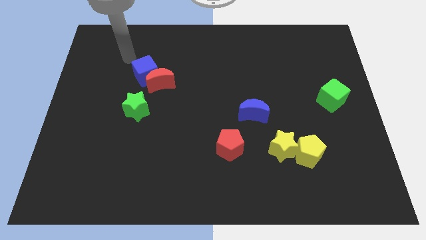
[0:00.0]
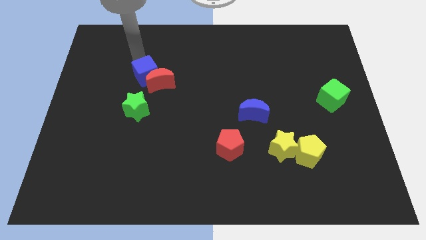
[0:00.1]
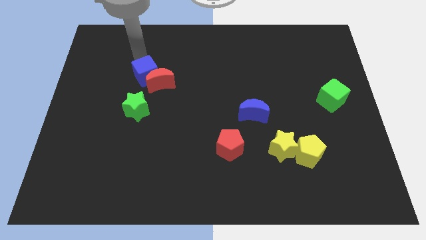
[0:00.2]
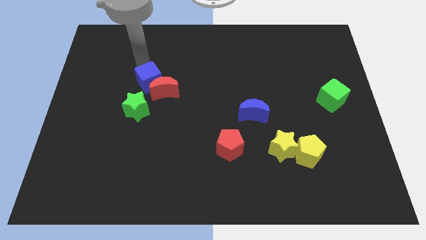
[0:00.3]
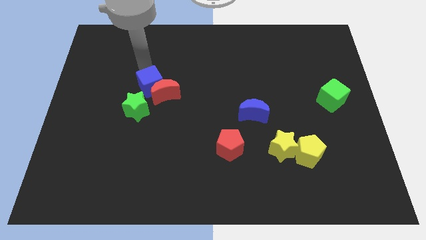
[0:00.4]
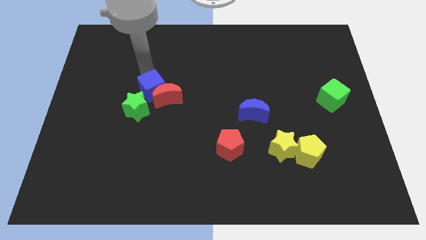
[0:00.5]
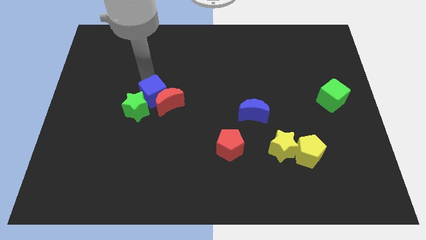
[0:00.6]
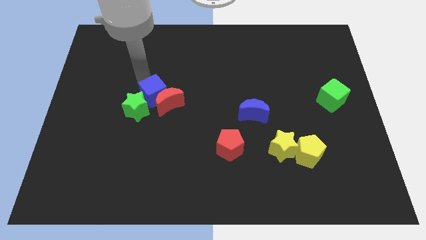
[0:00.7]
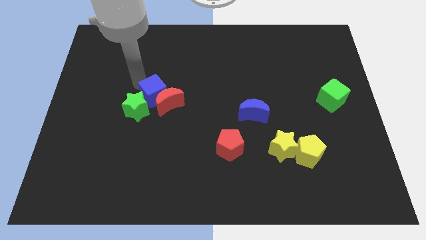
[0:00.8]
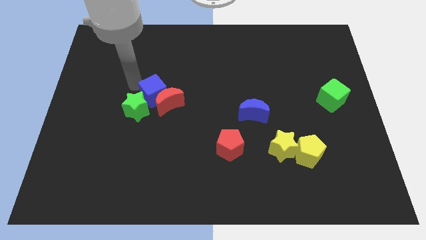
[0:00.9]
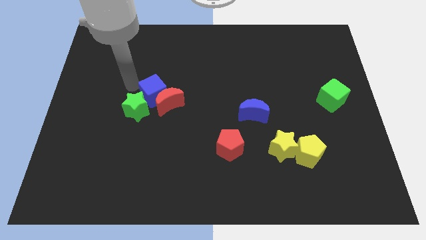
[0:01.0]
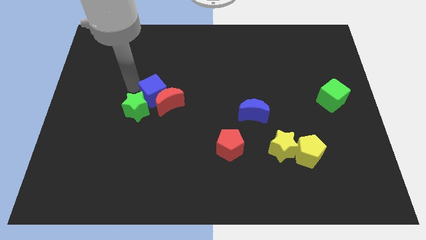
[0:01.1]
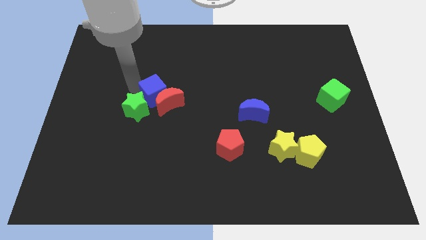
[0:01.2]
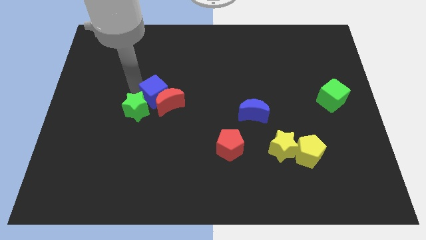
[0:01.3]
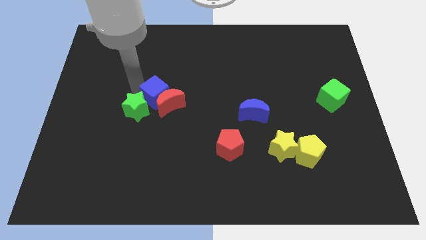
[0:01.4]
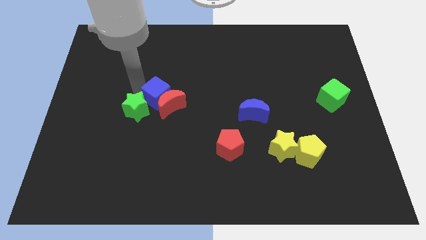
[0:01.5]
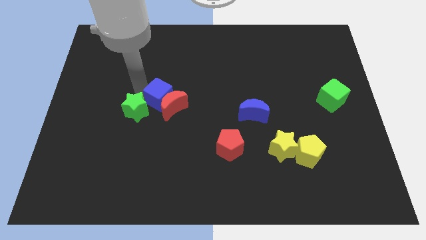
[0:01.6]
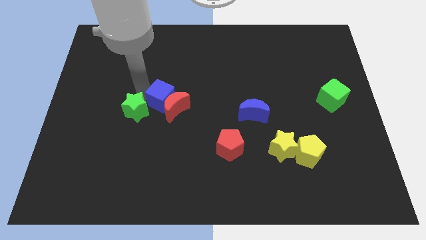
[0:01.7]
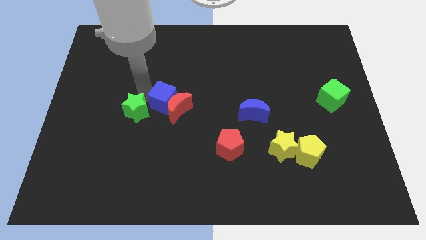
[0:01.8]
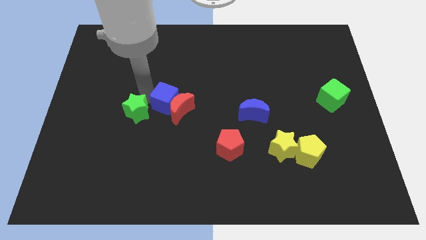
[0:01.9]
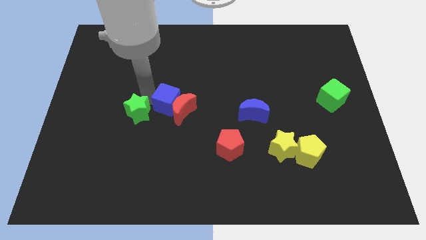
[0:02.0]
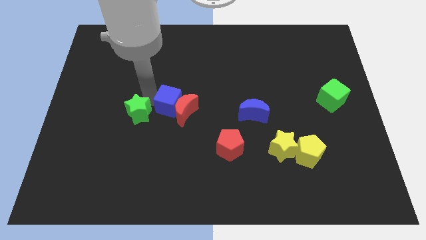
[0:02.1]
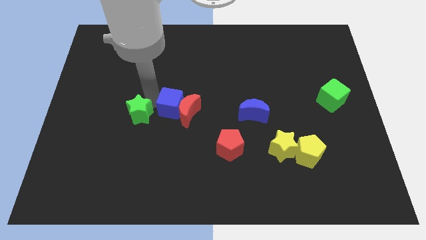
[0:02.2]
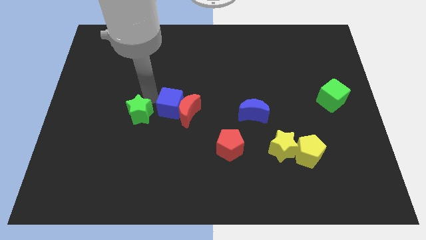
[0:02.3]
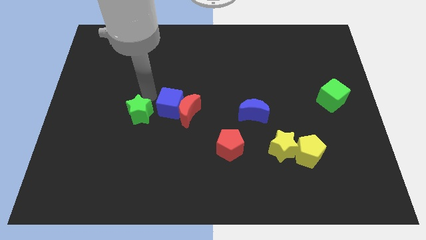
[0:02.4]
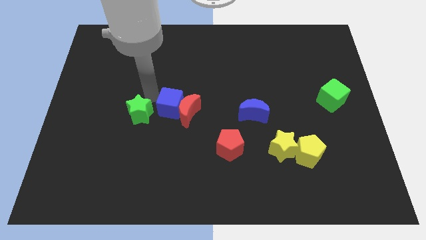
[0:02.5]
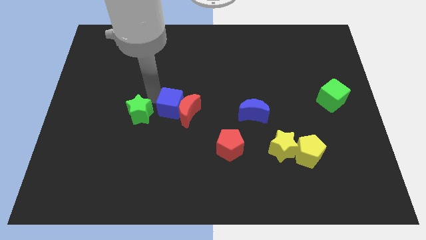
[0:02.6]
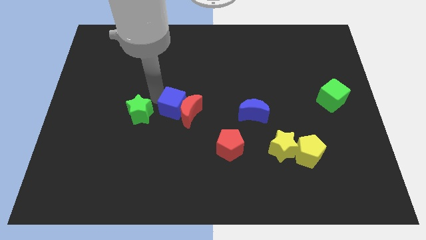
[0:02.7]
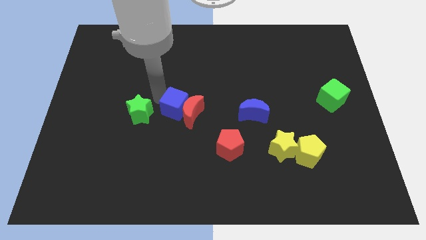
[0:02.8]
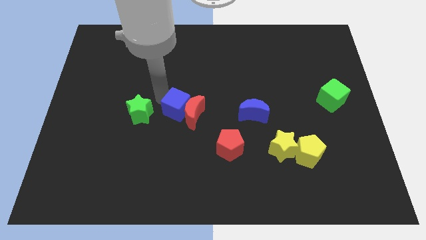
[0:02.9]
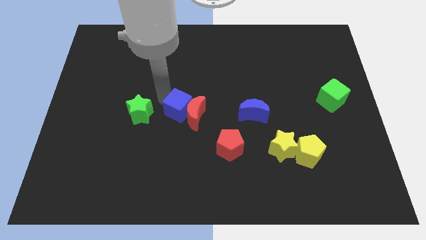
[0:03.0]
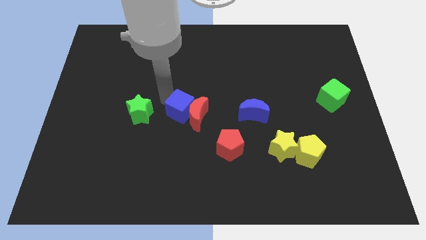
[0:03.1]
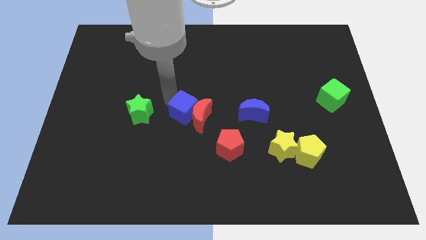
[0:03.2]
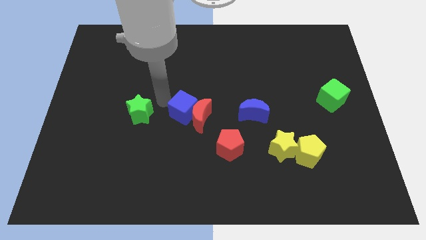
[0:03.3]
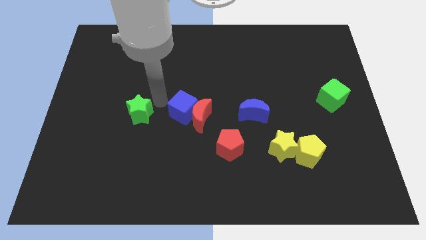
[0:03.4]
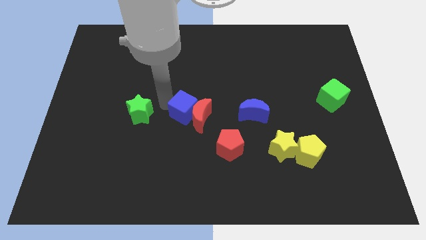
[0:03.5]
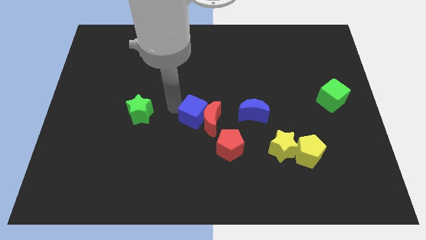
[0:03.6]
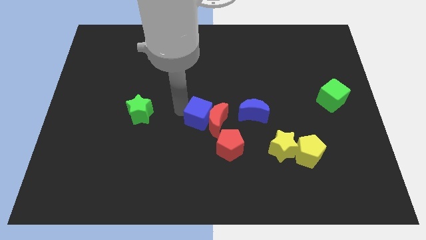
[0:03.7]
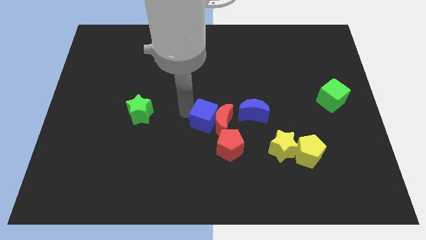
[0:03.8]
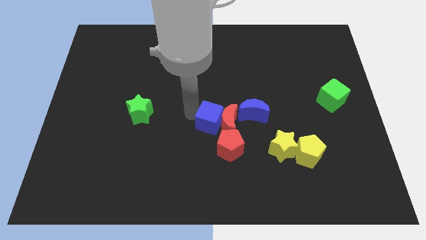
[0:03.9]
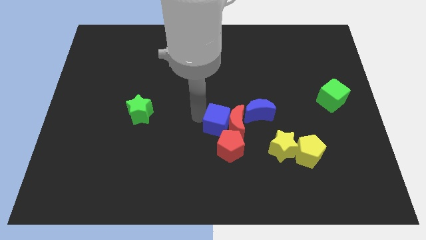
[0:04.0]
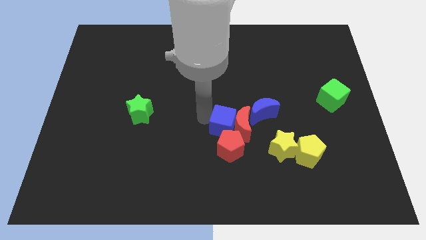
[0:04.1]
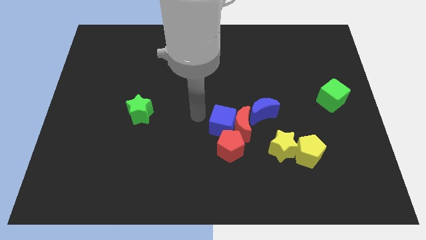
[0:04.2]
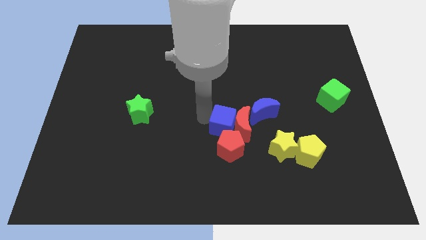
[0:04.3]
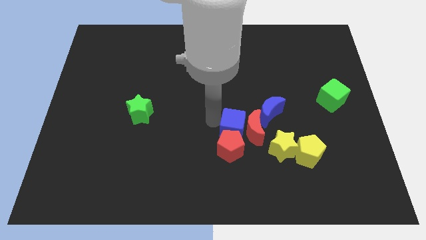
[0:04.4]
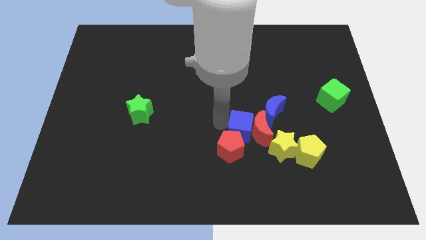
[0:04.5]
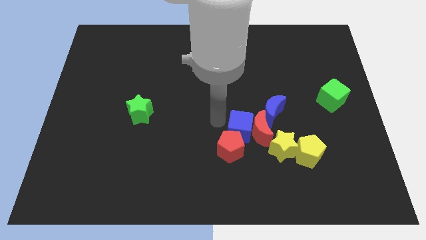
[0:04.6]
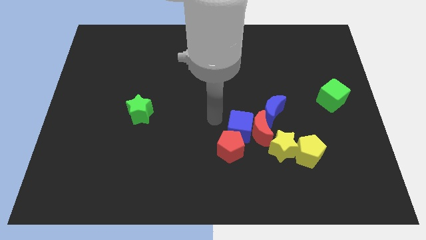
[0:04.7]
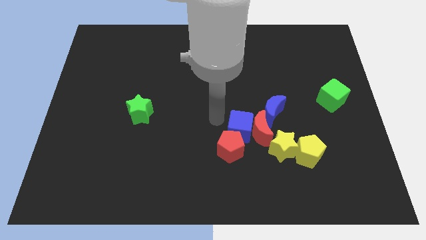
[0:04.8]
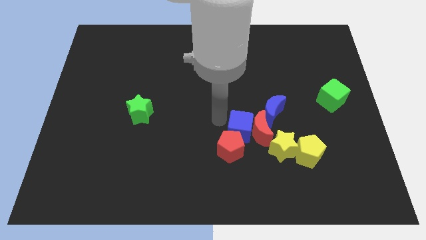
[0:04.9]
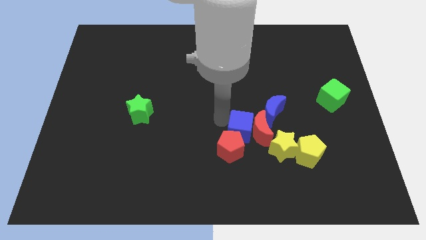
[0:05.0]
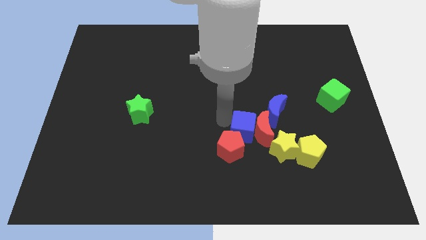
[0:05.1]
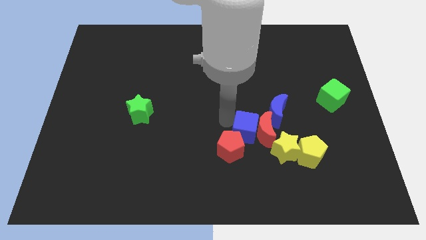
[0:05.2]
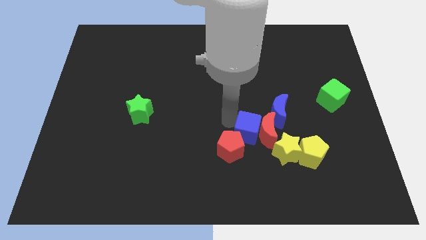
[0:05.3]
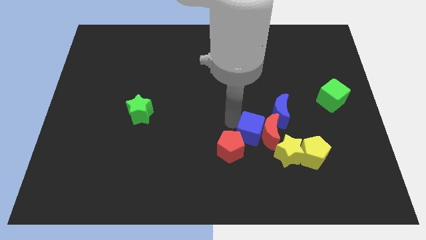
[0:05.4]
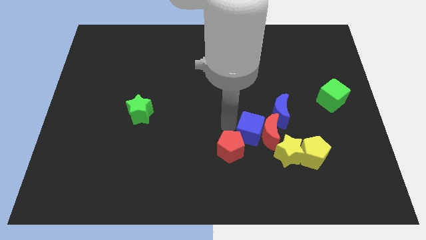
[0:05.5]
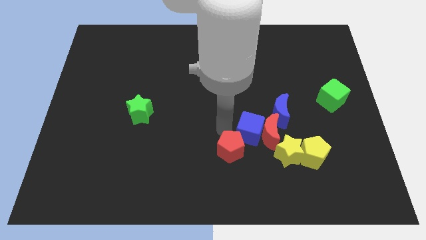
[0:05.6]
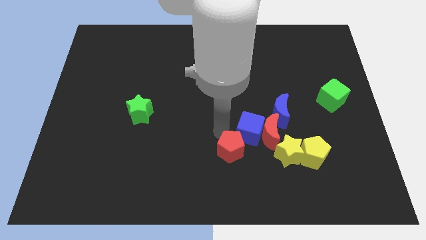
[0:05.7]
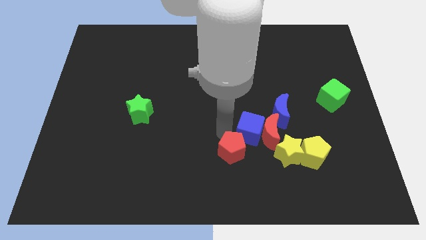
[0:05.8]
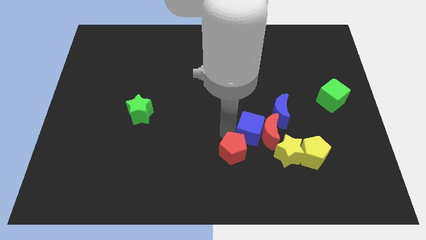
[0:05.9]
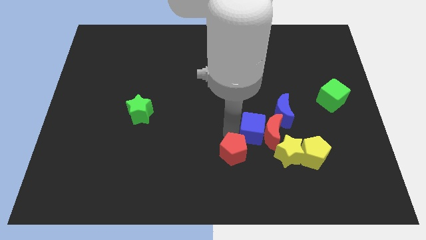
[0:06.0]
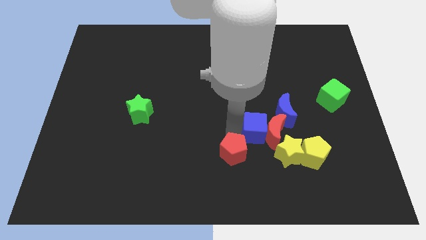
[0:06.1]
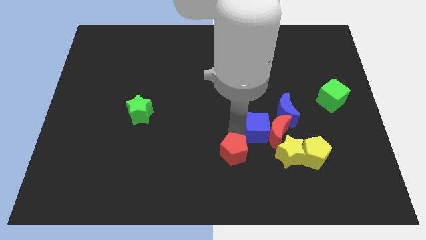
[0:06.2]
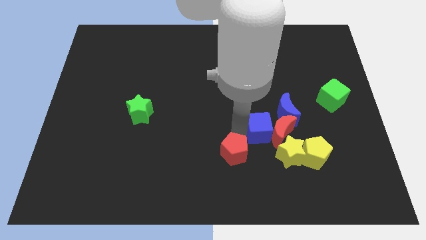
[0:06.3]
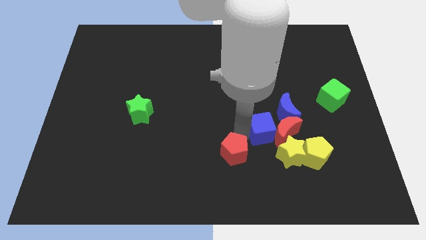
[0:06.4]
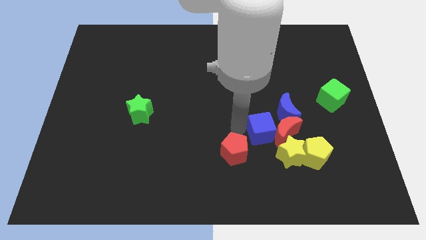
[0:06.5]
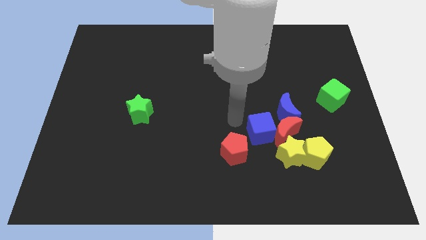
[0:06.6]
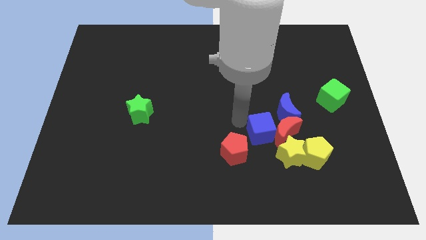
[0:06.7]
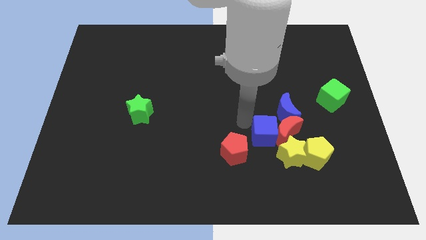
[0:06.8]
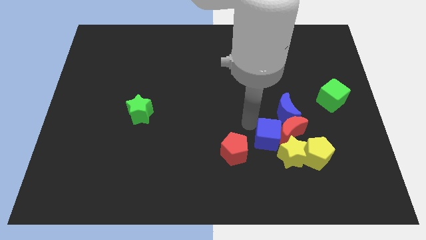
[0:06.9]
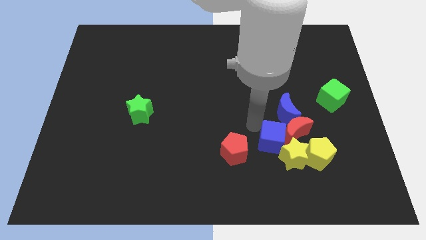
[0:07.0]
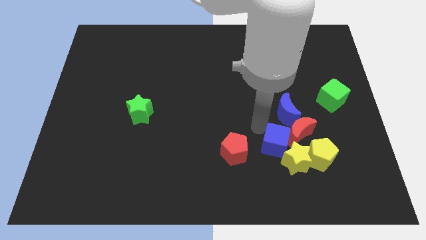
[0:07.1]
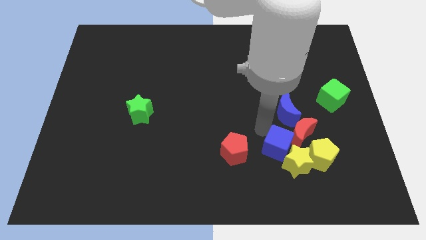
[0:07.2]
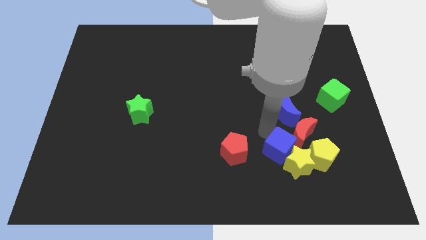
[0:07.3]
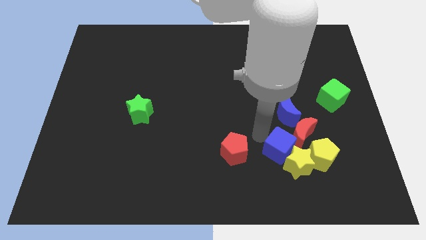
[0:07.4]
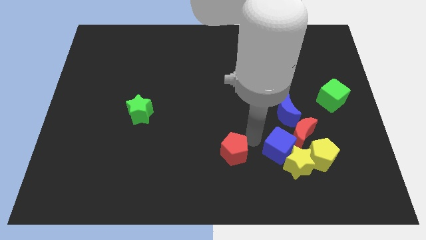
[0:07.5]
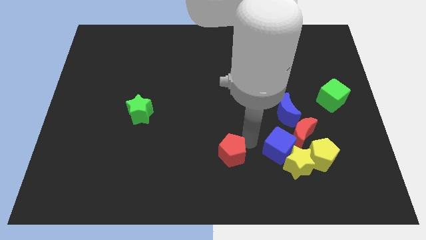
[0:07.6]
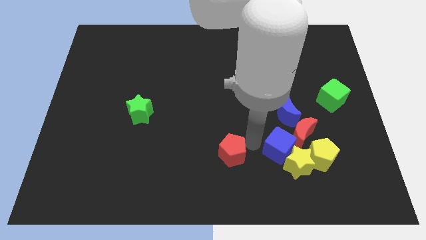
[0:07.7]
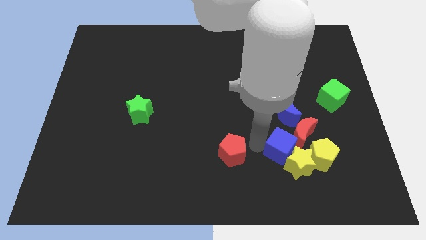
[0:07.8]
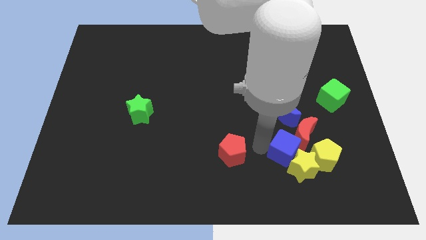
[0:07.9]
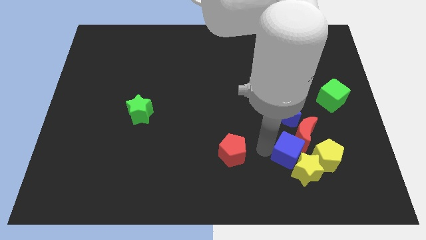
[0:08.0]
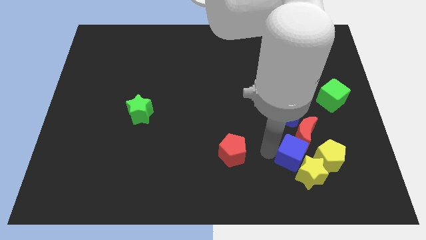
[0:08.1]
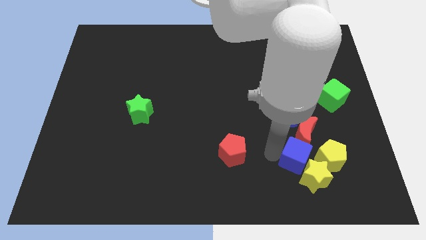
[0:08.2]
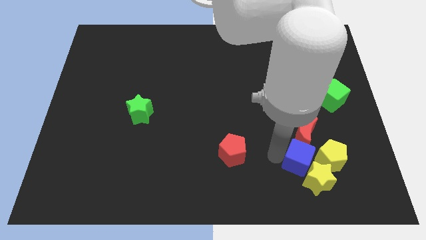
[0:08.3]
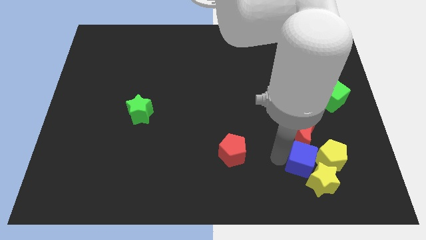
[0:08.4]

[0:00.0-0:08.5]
slide the blue cube close to the yellow pentagon
